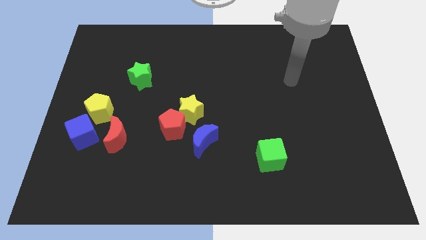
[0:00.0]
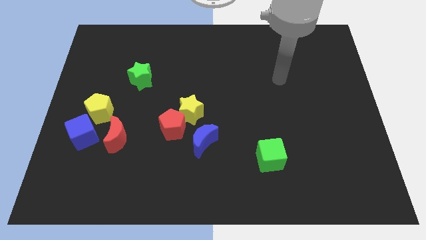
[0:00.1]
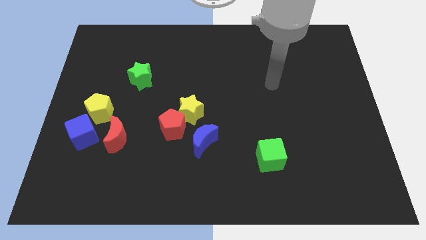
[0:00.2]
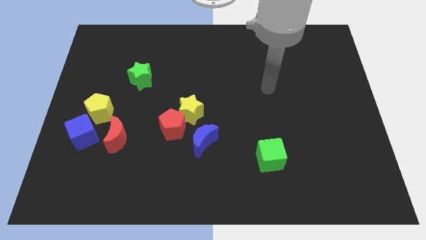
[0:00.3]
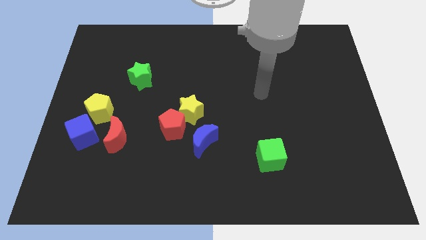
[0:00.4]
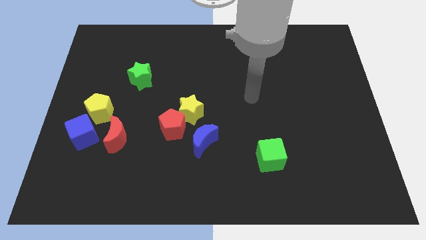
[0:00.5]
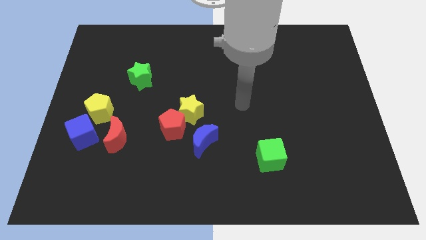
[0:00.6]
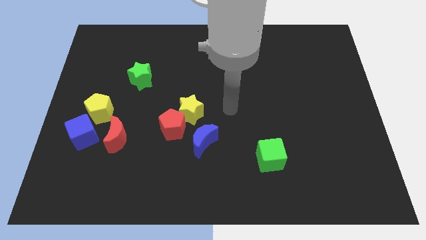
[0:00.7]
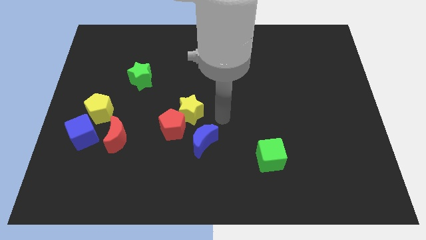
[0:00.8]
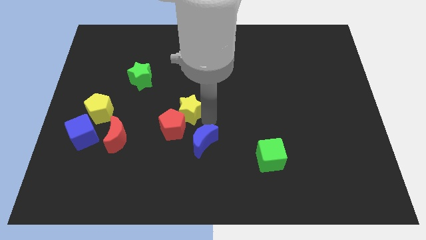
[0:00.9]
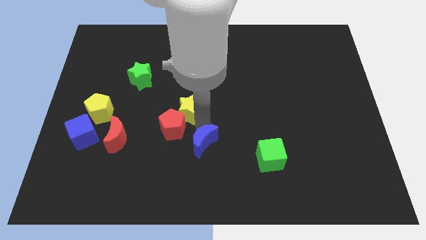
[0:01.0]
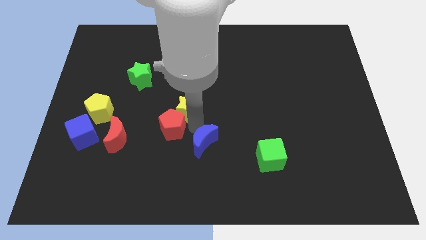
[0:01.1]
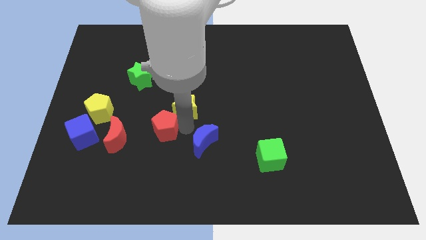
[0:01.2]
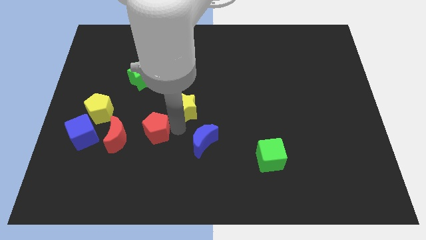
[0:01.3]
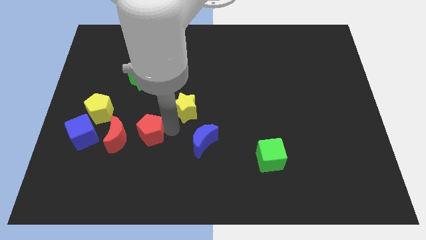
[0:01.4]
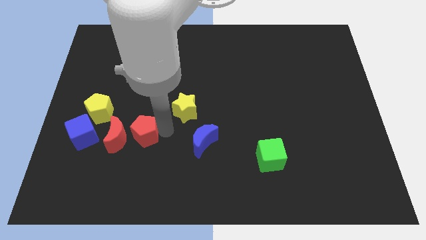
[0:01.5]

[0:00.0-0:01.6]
pull the red pentagon apart from the yellow star and blue moon

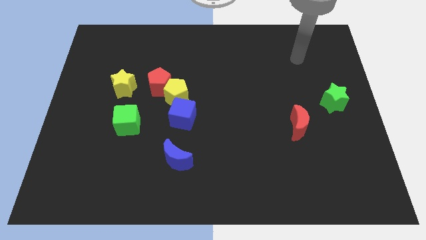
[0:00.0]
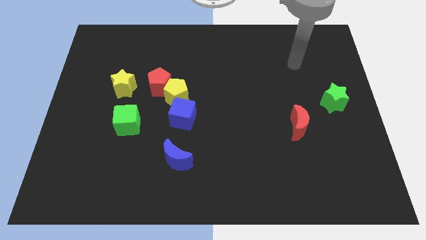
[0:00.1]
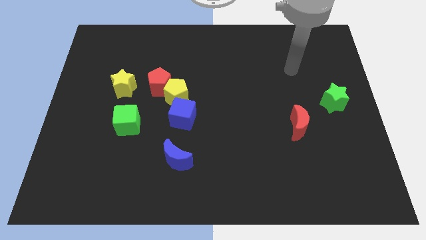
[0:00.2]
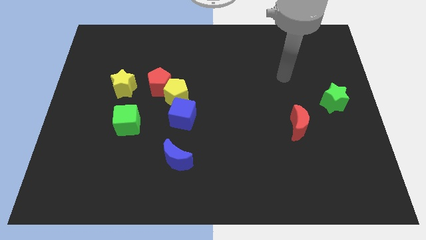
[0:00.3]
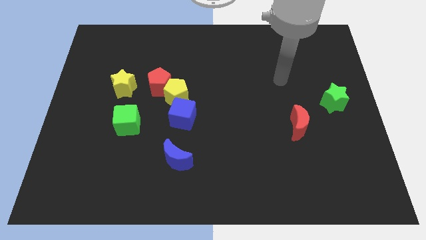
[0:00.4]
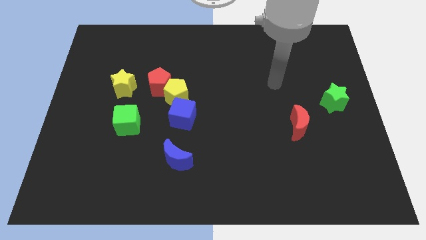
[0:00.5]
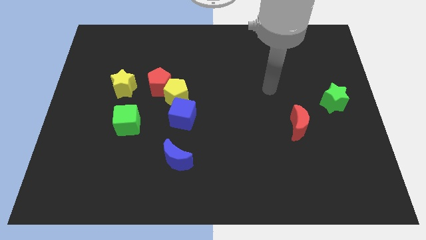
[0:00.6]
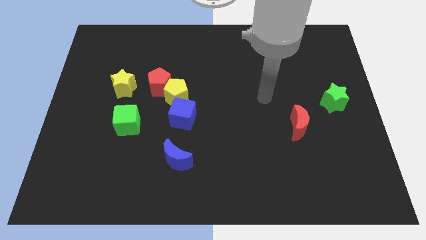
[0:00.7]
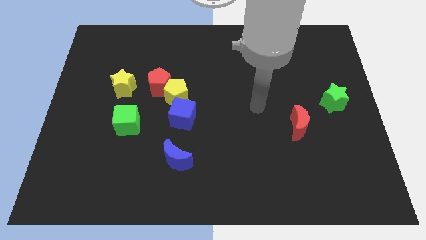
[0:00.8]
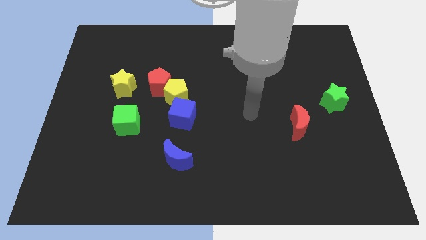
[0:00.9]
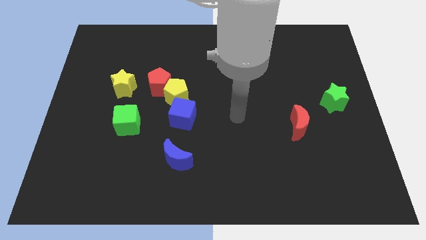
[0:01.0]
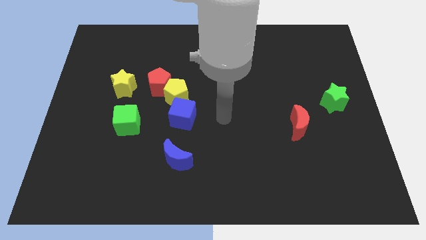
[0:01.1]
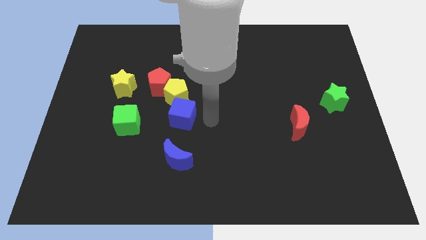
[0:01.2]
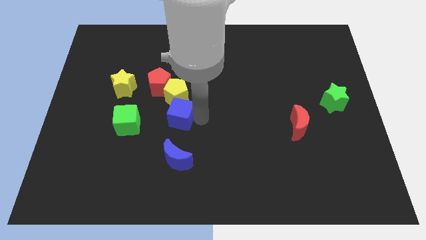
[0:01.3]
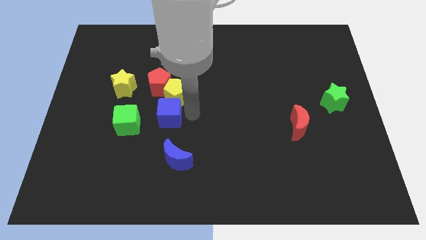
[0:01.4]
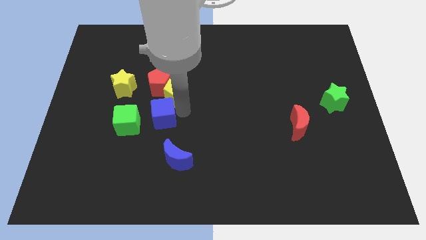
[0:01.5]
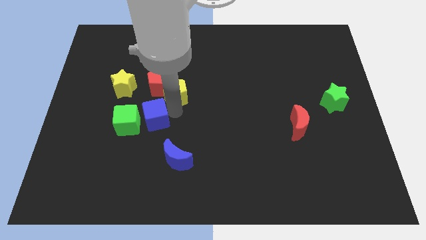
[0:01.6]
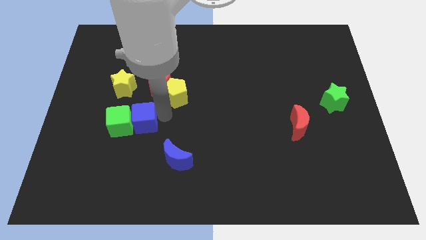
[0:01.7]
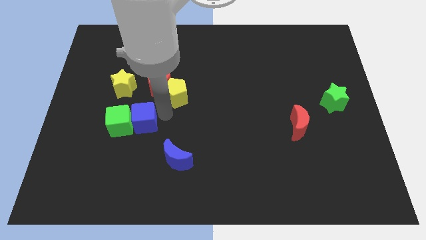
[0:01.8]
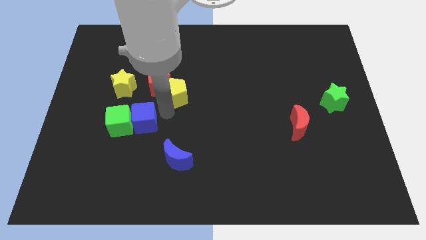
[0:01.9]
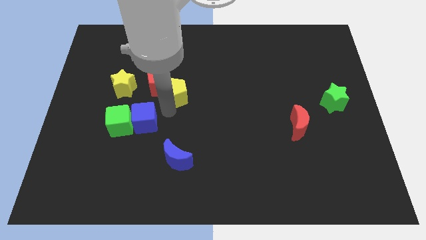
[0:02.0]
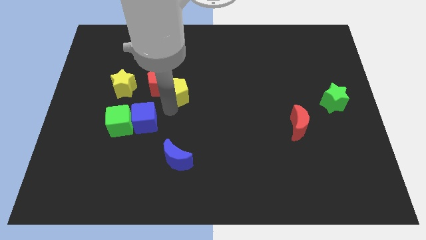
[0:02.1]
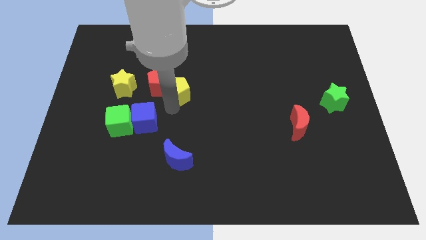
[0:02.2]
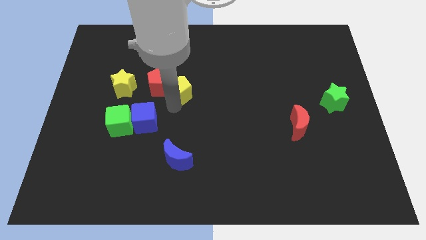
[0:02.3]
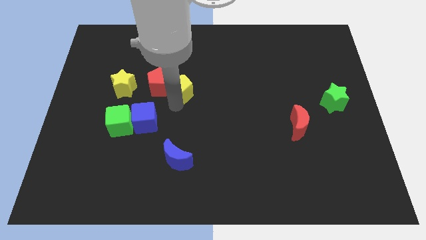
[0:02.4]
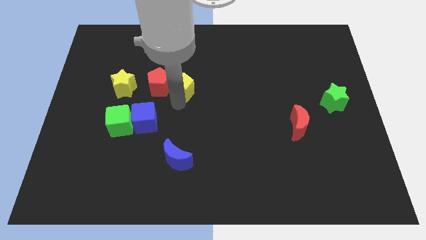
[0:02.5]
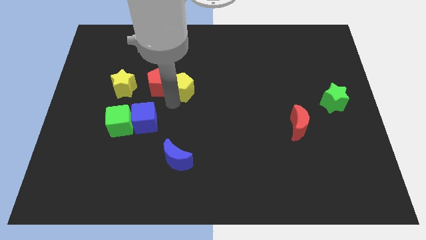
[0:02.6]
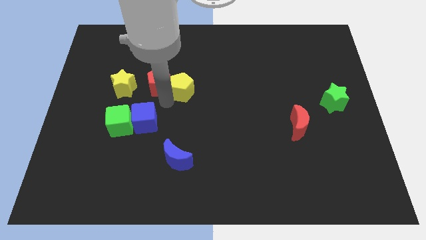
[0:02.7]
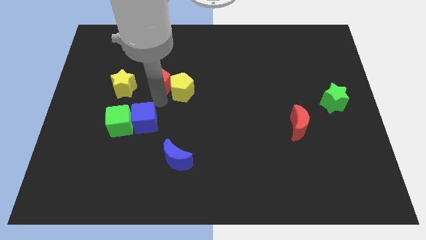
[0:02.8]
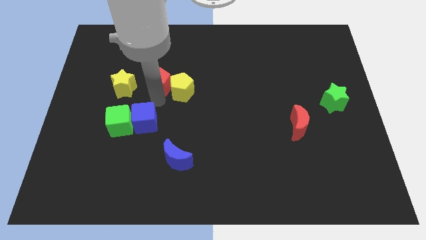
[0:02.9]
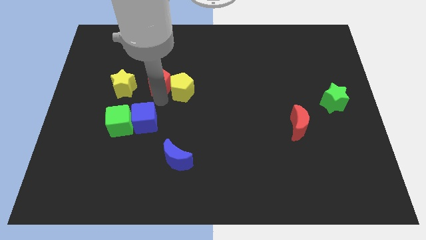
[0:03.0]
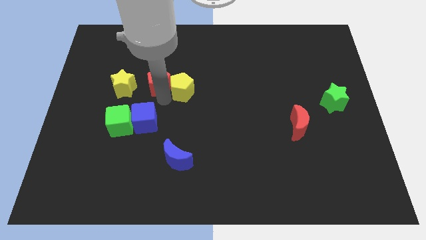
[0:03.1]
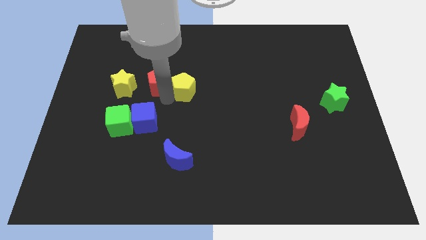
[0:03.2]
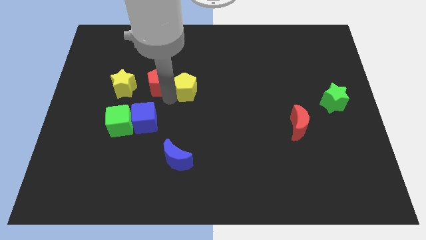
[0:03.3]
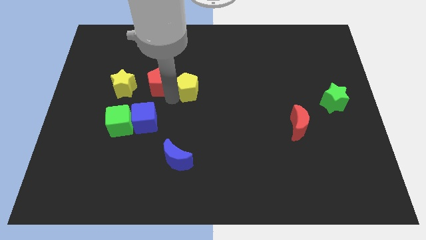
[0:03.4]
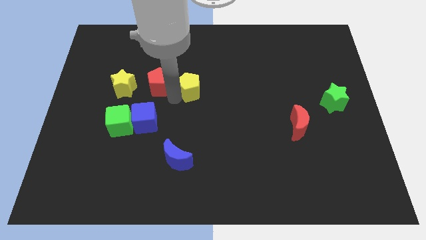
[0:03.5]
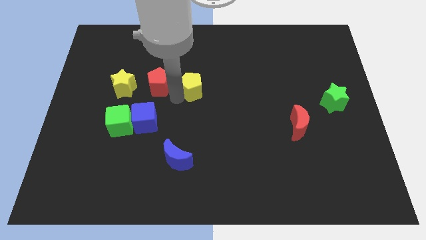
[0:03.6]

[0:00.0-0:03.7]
move the yellow pentagon away from the red pentagon and blue cube

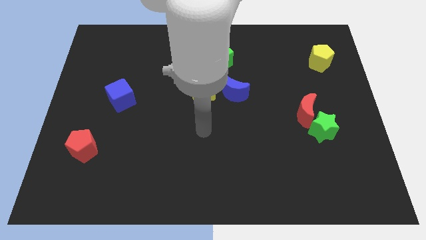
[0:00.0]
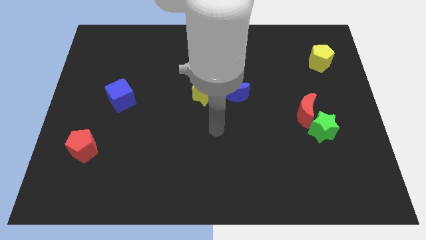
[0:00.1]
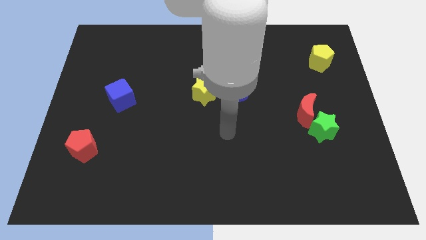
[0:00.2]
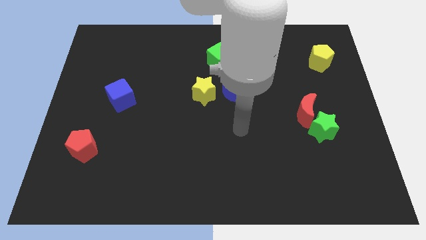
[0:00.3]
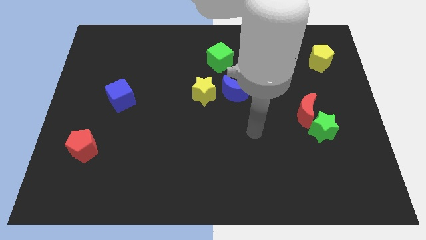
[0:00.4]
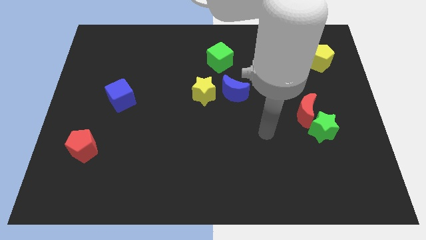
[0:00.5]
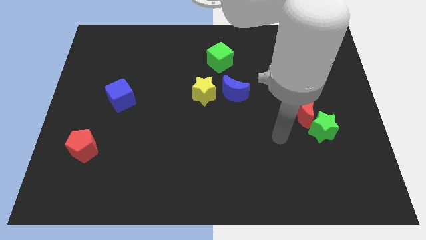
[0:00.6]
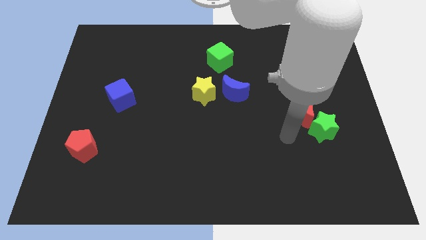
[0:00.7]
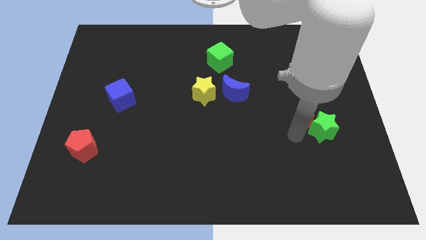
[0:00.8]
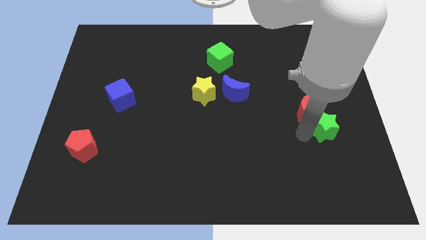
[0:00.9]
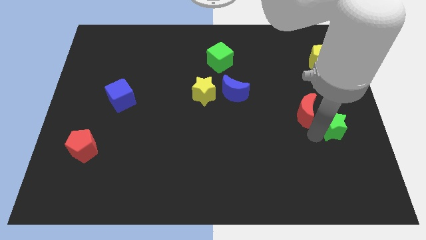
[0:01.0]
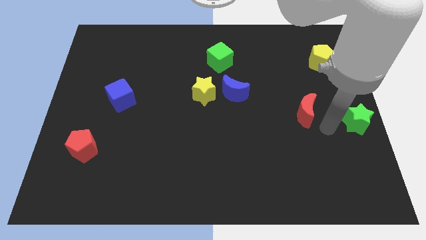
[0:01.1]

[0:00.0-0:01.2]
pull the red moon apart from the green star

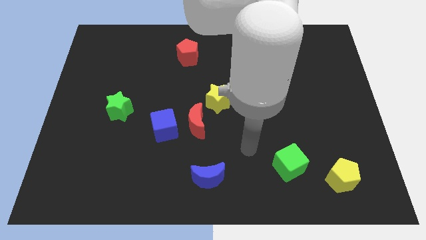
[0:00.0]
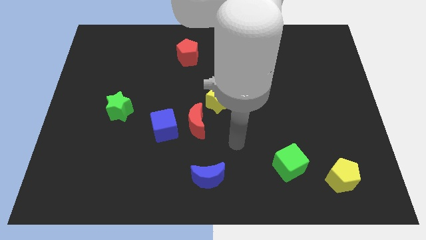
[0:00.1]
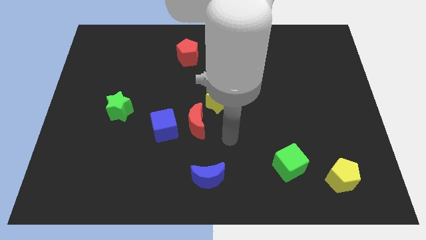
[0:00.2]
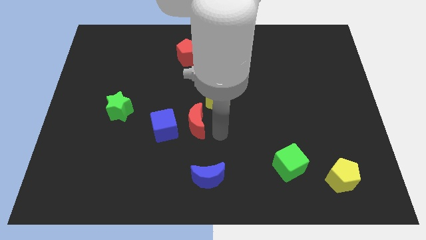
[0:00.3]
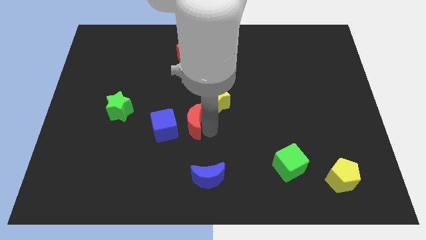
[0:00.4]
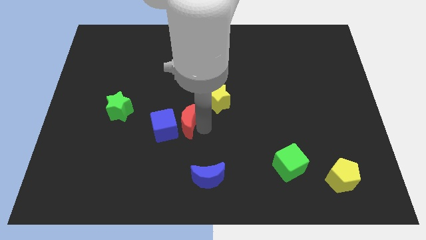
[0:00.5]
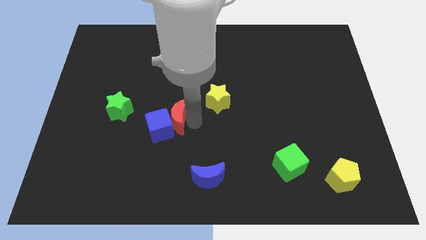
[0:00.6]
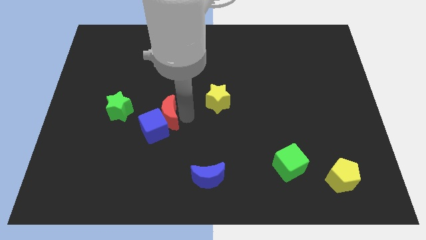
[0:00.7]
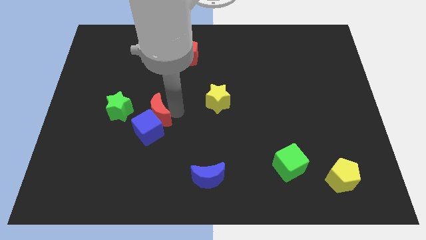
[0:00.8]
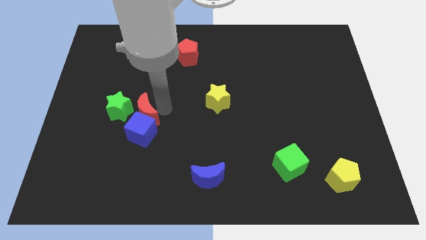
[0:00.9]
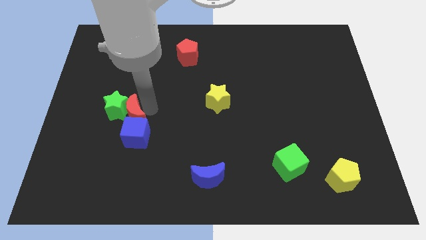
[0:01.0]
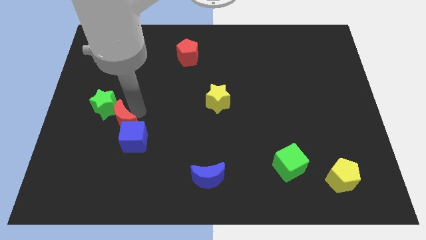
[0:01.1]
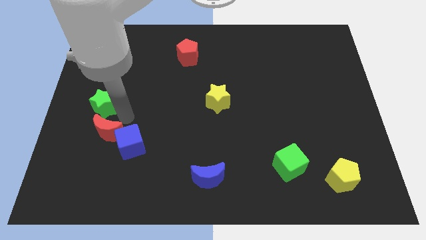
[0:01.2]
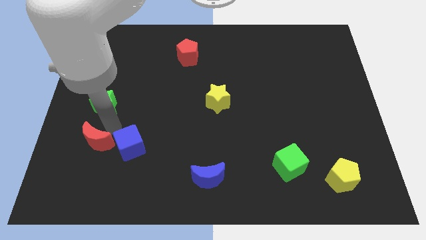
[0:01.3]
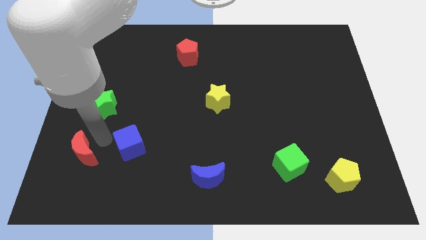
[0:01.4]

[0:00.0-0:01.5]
separate the blue cube from the red moon

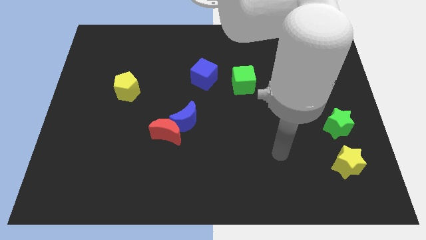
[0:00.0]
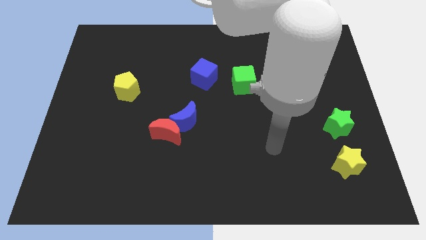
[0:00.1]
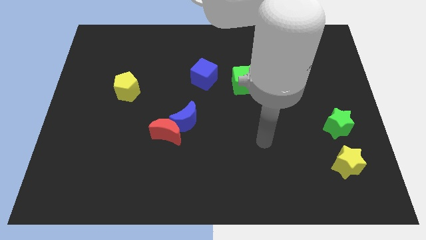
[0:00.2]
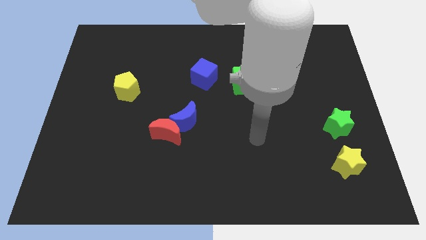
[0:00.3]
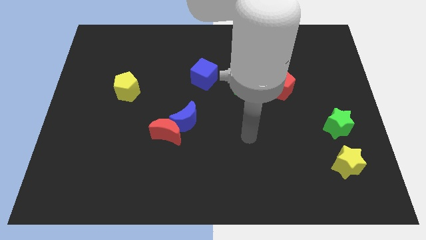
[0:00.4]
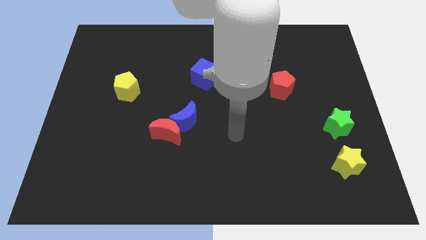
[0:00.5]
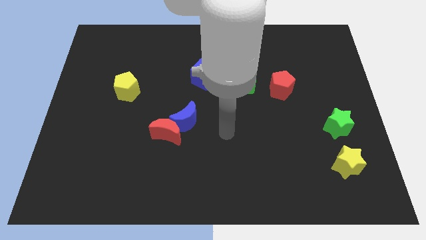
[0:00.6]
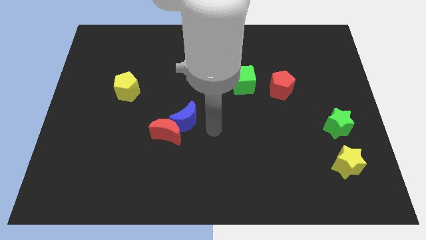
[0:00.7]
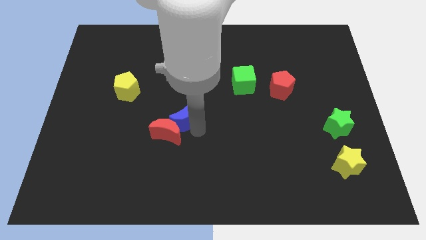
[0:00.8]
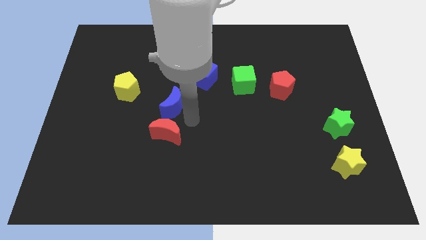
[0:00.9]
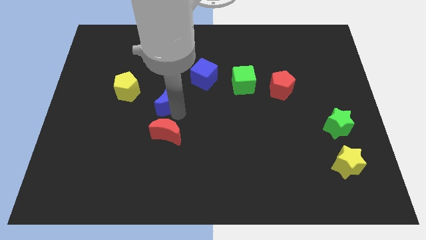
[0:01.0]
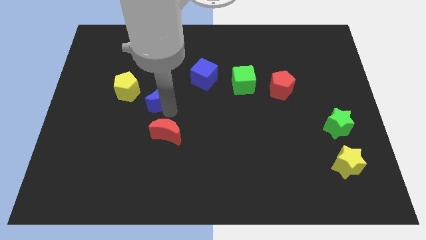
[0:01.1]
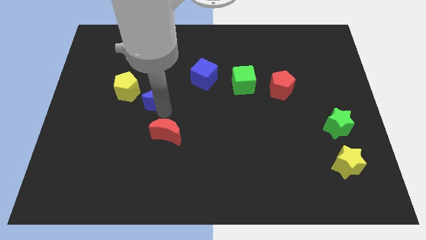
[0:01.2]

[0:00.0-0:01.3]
separate the red moon from the blue moon
